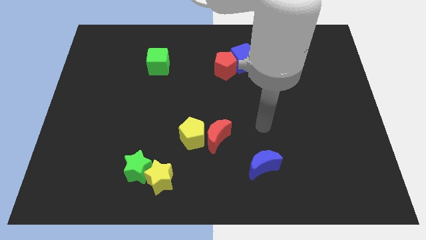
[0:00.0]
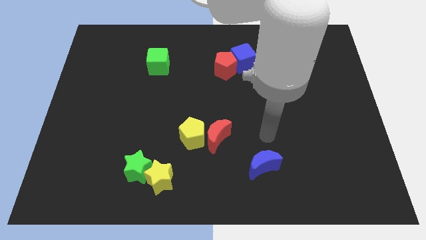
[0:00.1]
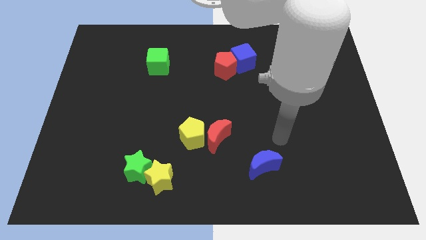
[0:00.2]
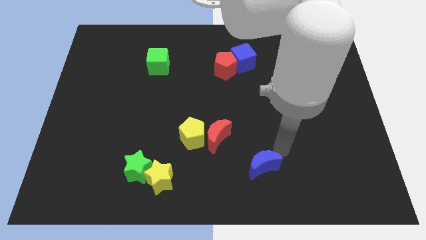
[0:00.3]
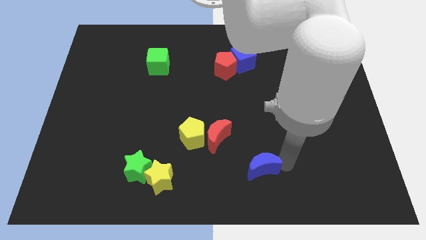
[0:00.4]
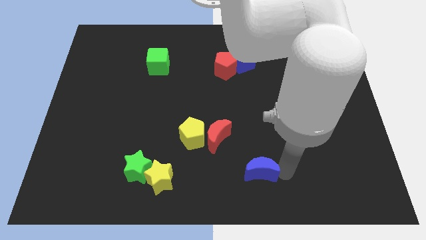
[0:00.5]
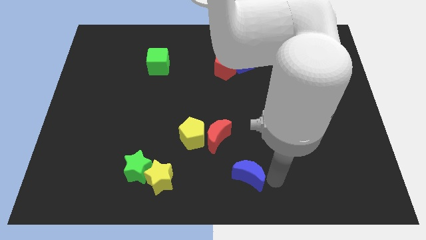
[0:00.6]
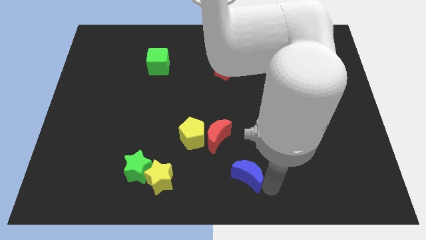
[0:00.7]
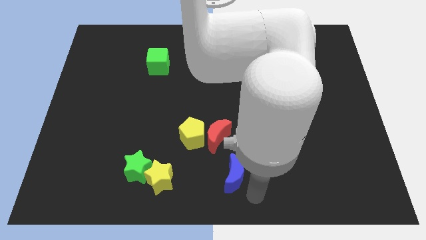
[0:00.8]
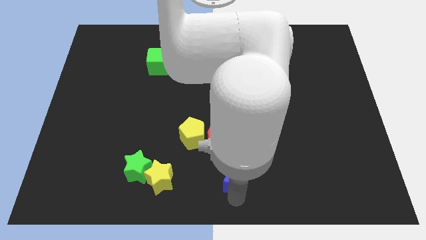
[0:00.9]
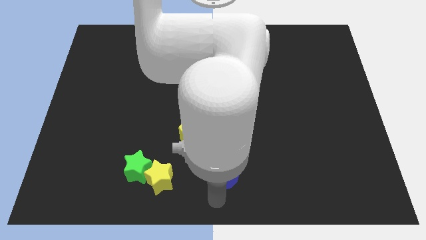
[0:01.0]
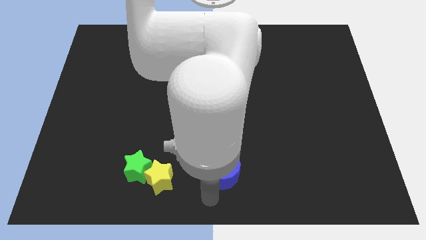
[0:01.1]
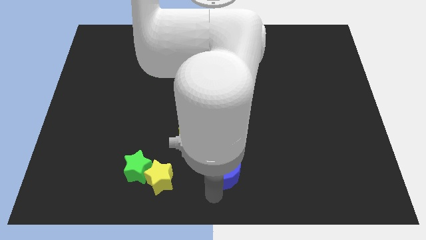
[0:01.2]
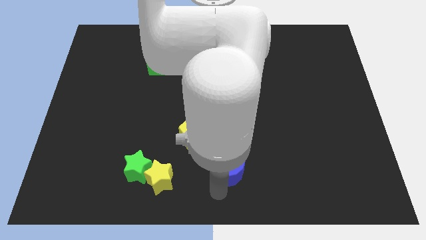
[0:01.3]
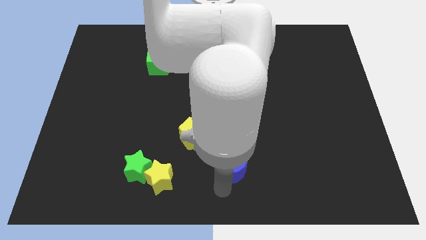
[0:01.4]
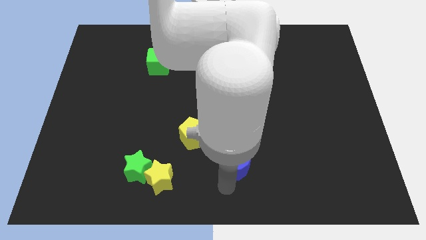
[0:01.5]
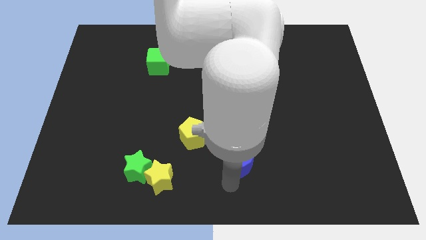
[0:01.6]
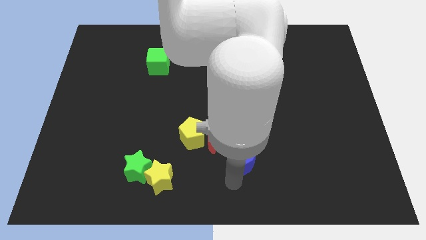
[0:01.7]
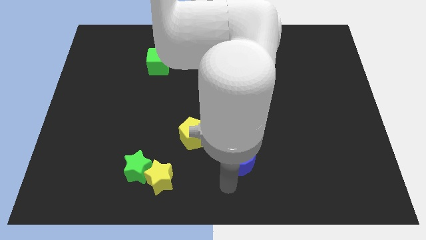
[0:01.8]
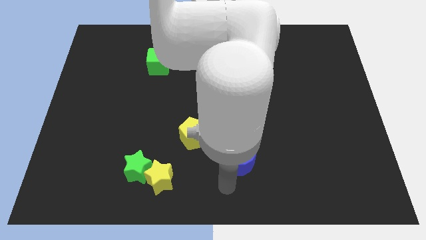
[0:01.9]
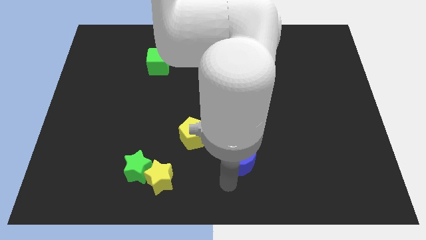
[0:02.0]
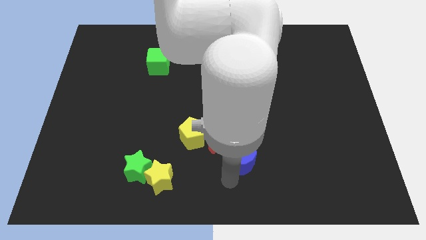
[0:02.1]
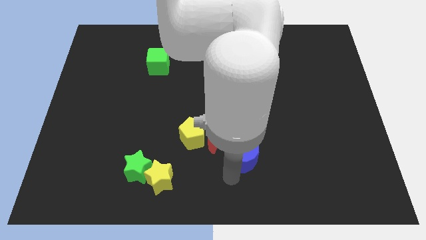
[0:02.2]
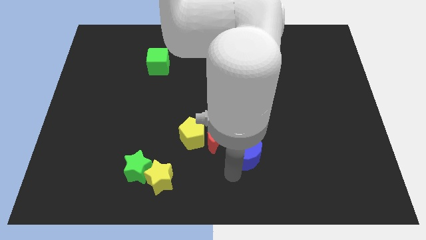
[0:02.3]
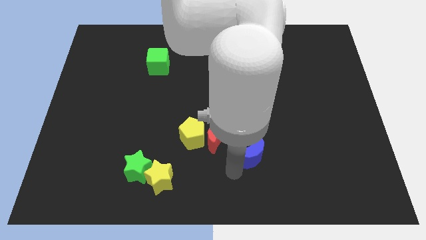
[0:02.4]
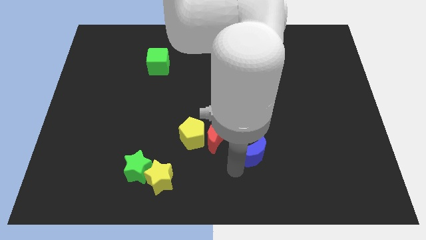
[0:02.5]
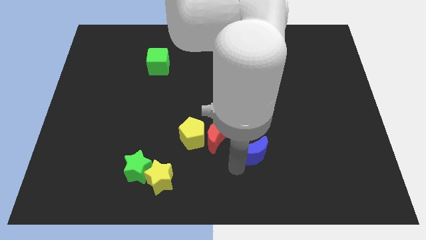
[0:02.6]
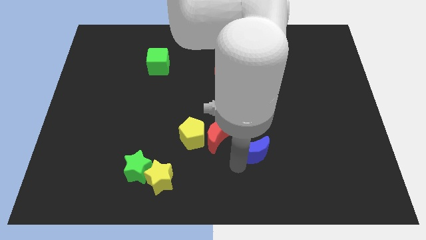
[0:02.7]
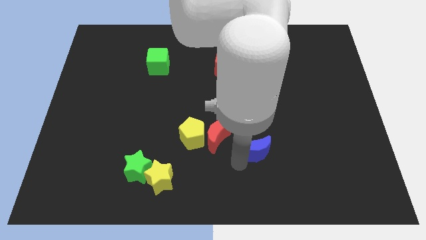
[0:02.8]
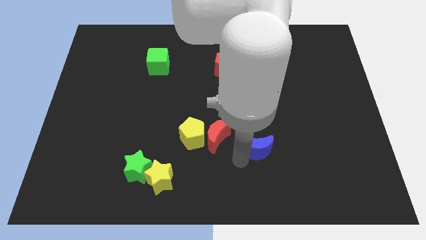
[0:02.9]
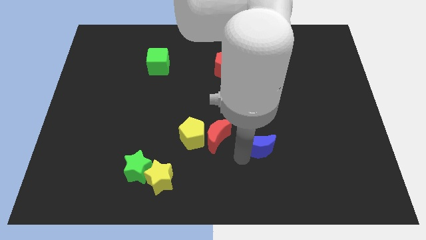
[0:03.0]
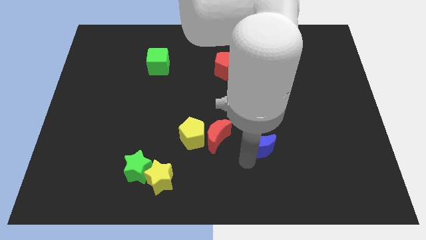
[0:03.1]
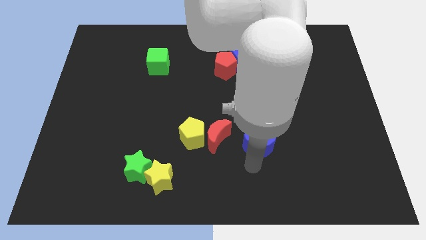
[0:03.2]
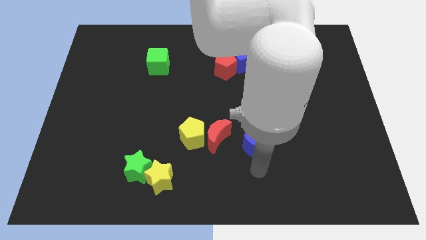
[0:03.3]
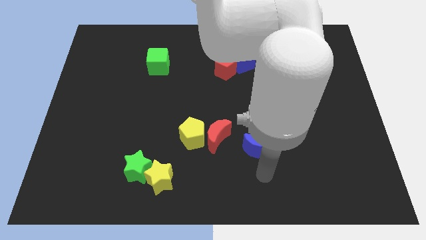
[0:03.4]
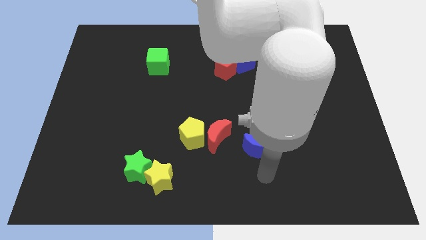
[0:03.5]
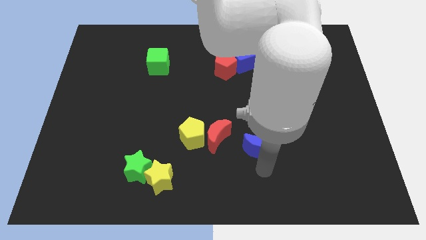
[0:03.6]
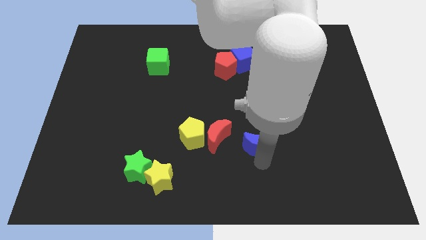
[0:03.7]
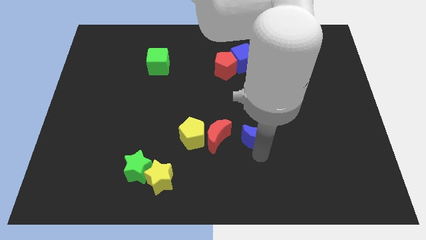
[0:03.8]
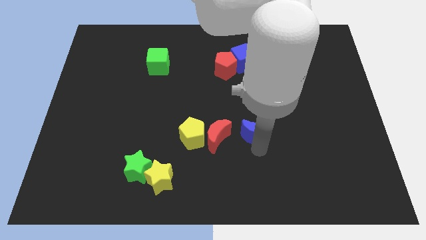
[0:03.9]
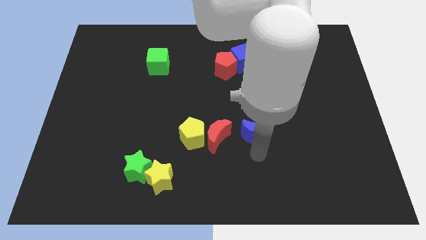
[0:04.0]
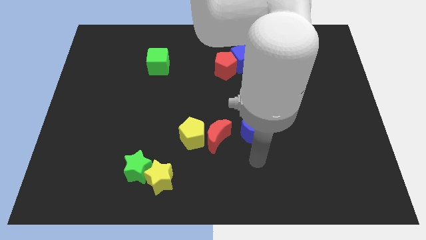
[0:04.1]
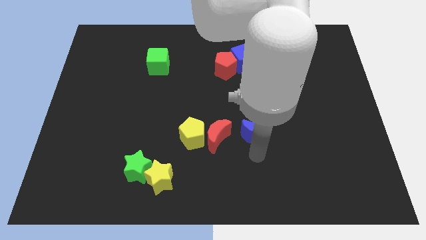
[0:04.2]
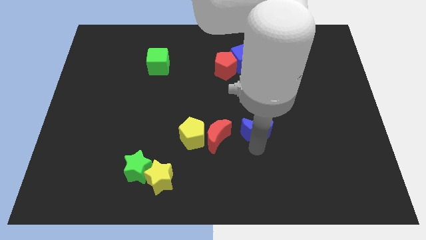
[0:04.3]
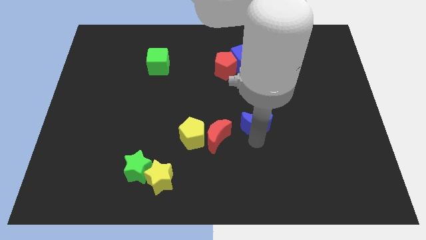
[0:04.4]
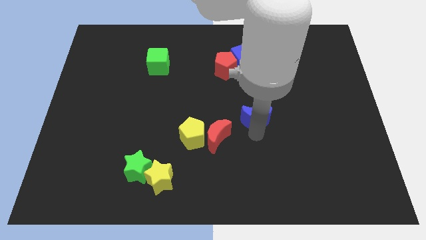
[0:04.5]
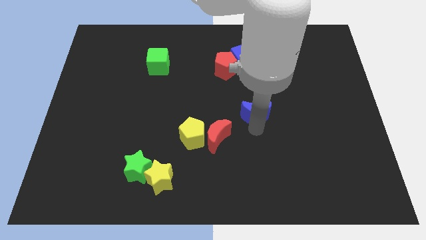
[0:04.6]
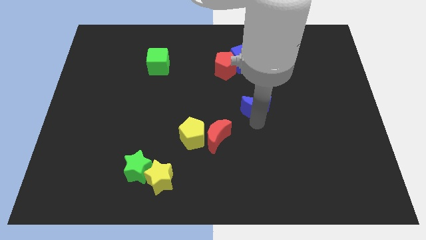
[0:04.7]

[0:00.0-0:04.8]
move the blue moon below the blue cube

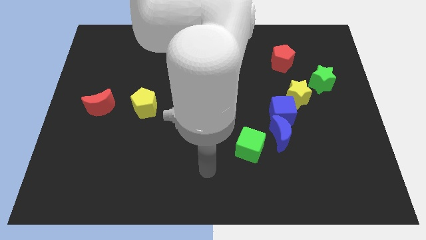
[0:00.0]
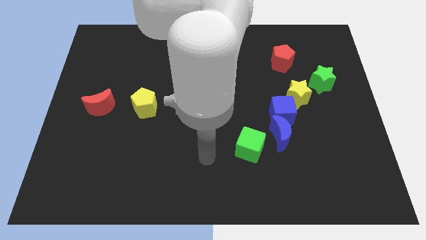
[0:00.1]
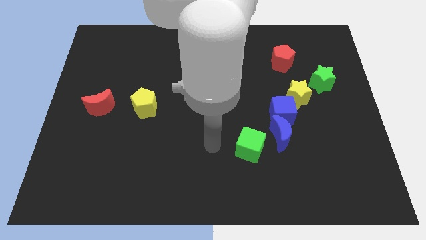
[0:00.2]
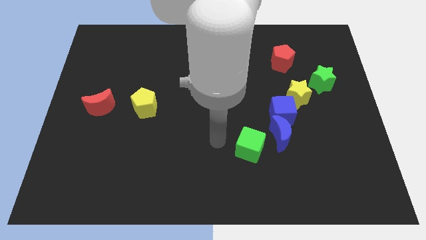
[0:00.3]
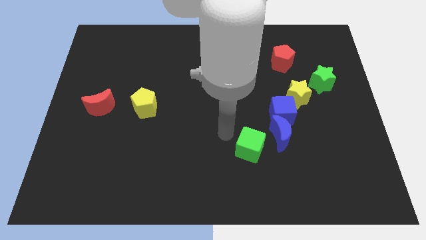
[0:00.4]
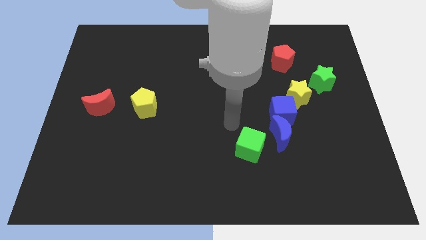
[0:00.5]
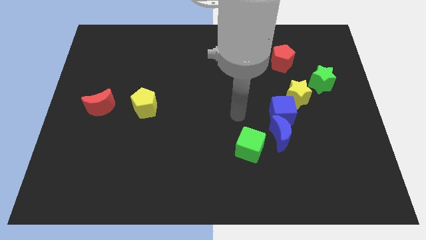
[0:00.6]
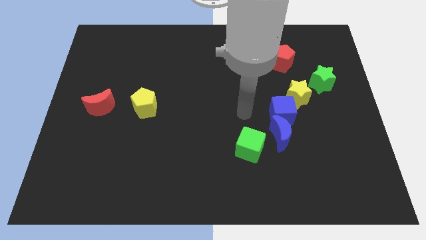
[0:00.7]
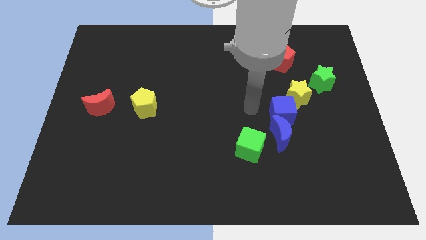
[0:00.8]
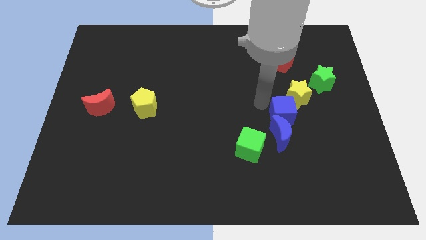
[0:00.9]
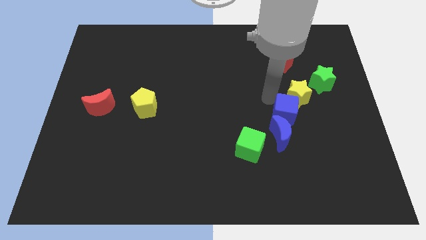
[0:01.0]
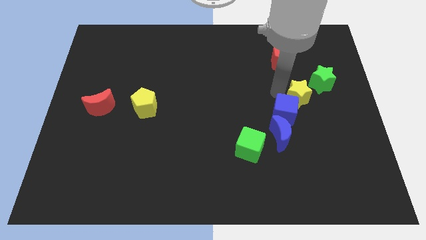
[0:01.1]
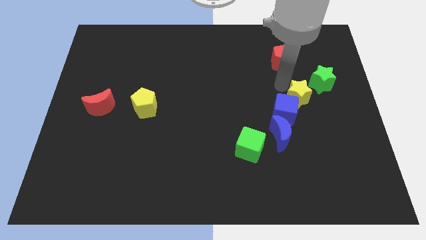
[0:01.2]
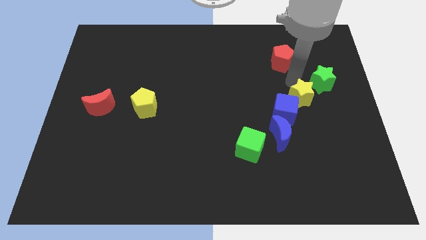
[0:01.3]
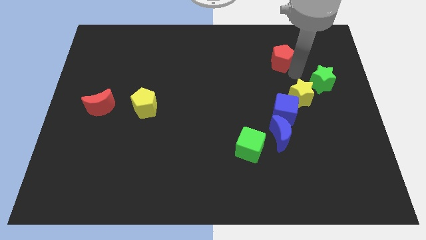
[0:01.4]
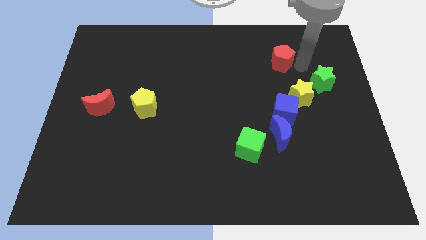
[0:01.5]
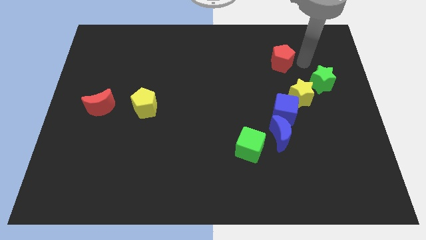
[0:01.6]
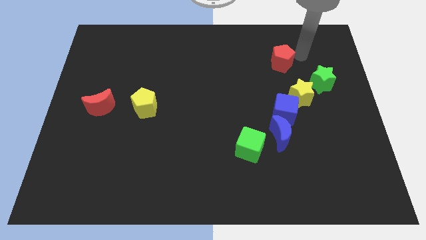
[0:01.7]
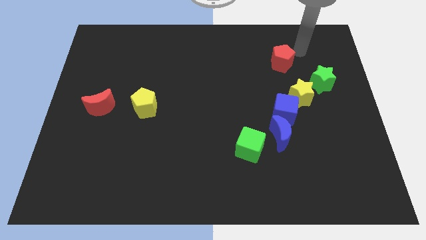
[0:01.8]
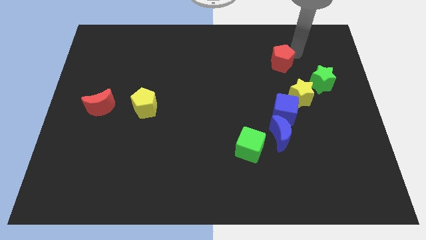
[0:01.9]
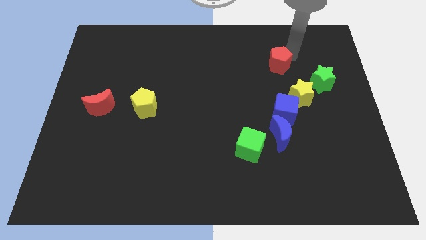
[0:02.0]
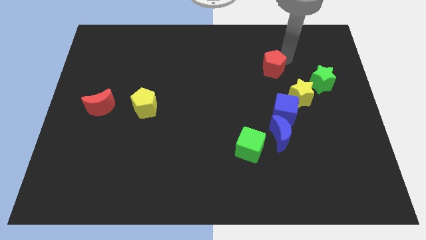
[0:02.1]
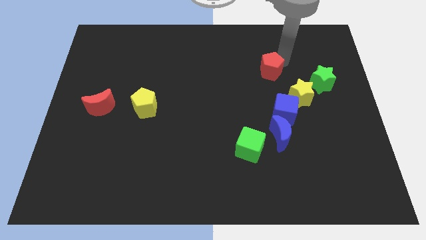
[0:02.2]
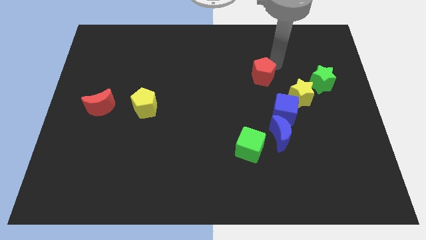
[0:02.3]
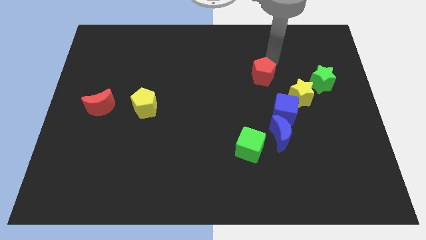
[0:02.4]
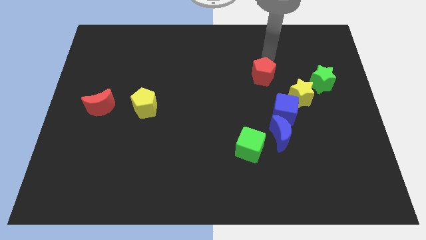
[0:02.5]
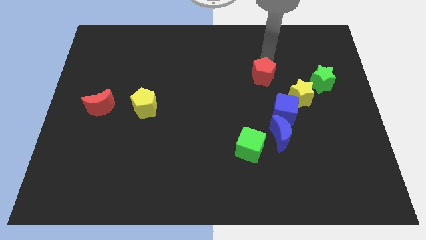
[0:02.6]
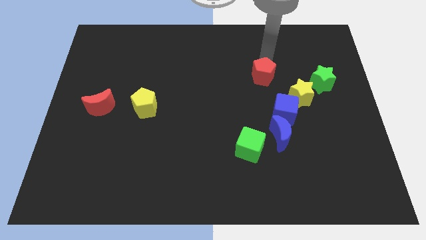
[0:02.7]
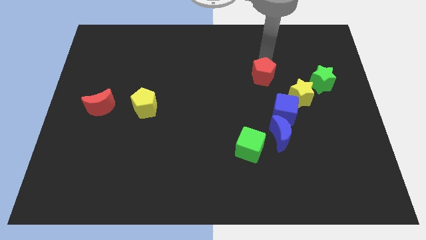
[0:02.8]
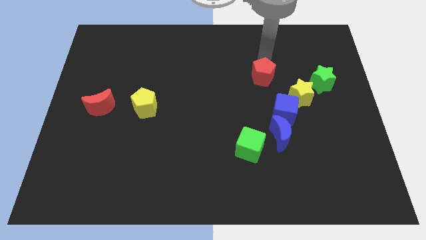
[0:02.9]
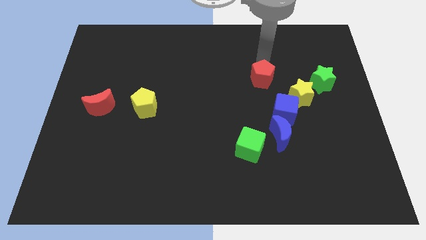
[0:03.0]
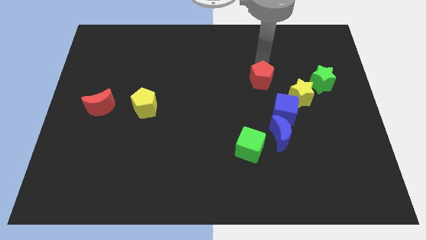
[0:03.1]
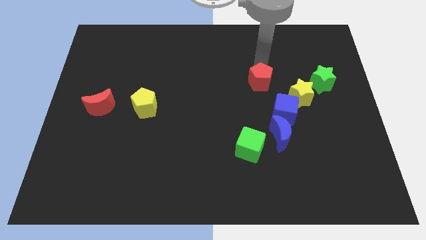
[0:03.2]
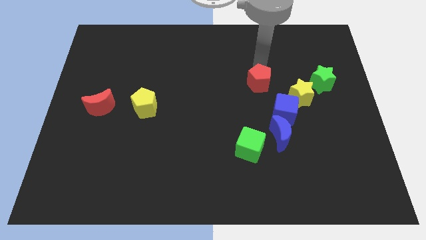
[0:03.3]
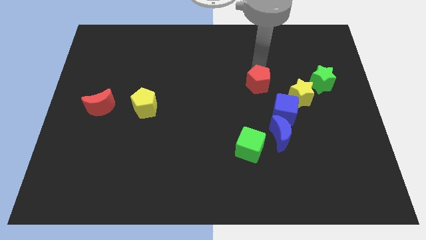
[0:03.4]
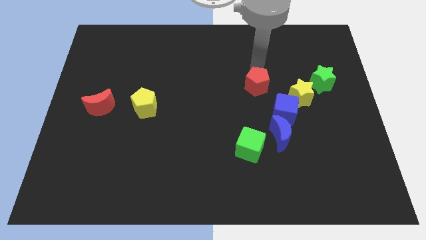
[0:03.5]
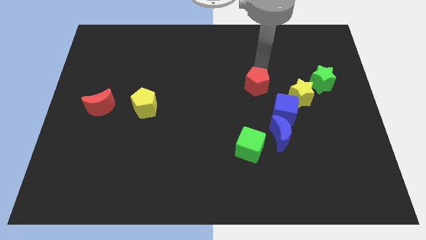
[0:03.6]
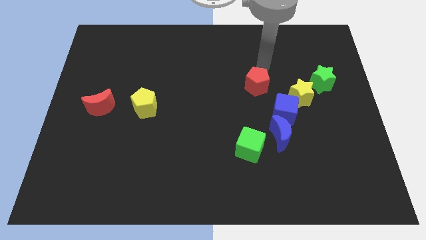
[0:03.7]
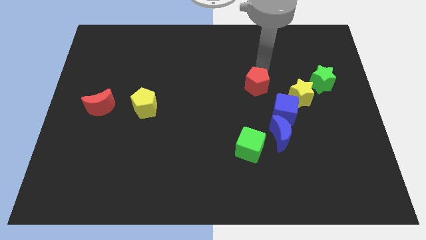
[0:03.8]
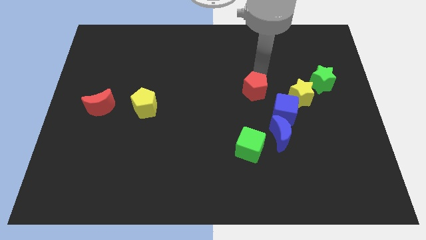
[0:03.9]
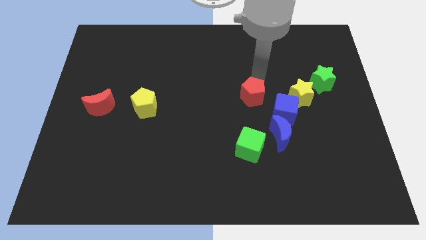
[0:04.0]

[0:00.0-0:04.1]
move the red pentagon to the top of the green cube
